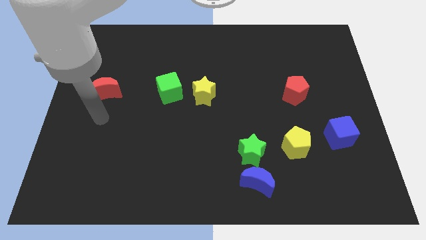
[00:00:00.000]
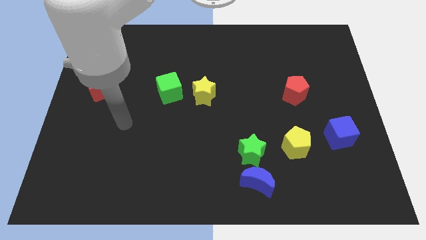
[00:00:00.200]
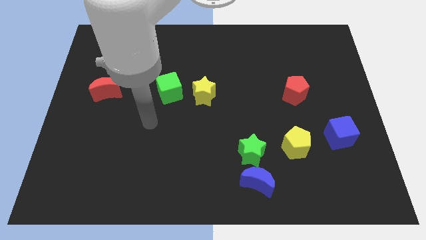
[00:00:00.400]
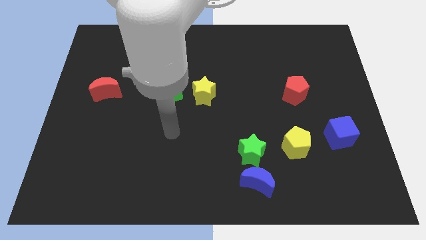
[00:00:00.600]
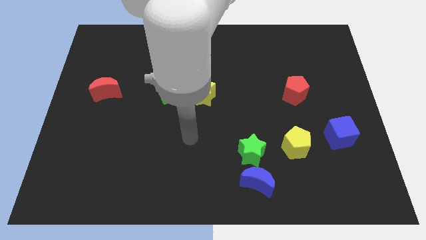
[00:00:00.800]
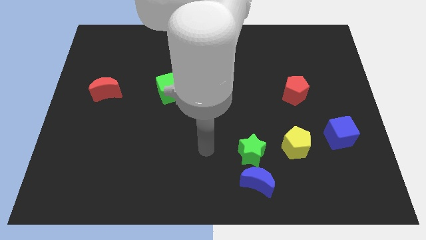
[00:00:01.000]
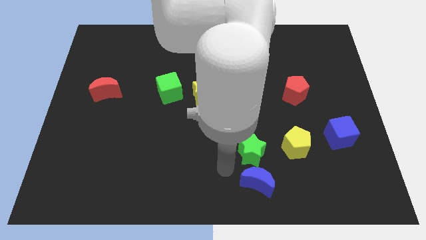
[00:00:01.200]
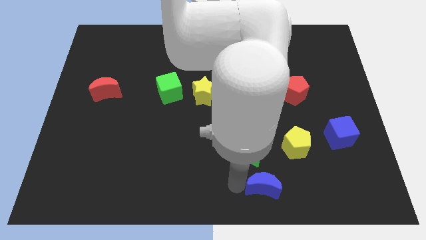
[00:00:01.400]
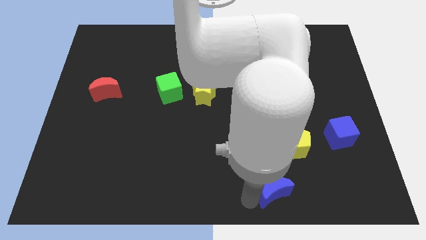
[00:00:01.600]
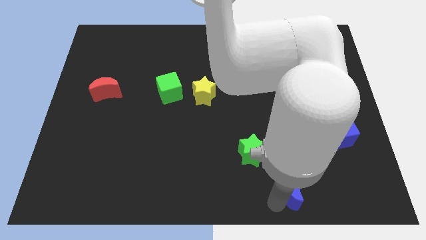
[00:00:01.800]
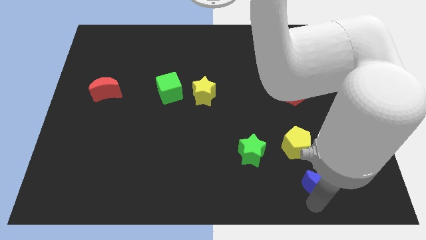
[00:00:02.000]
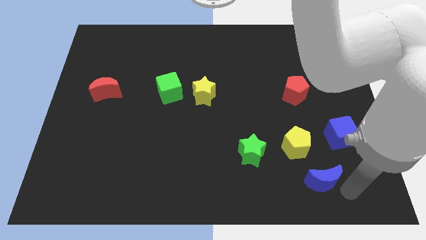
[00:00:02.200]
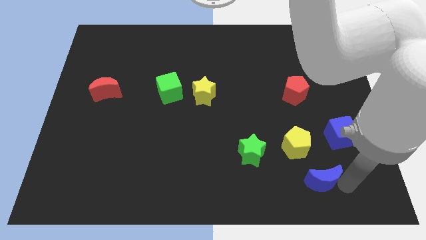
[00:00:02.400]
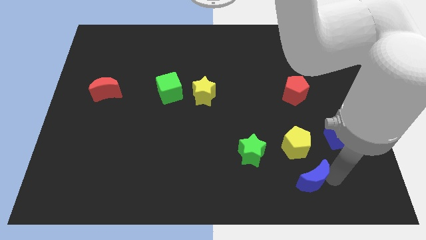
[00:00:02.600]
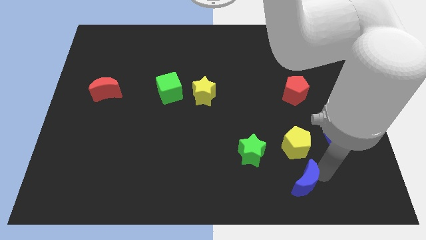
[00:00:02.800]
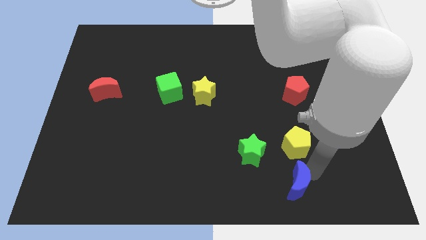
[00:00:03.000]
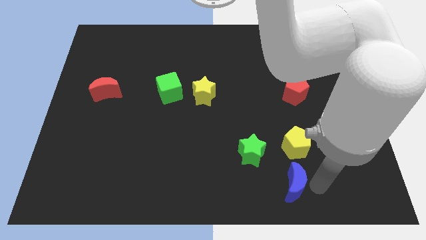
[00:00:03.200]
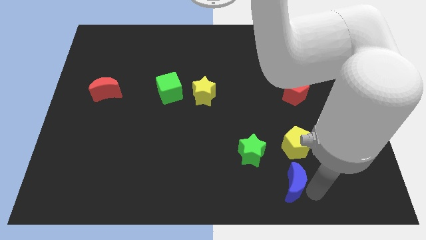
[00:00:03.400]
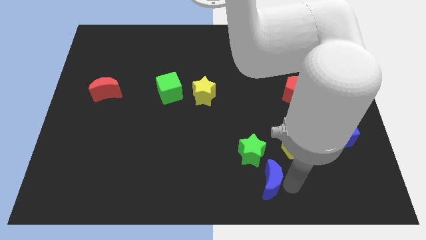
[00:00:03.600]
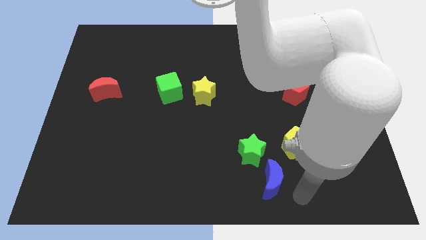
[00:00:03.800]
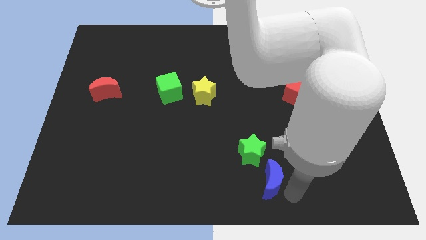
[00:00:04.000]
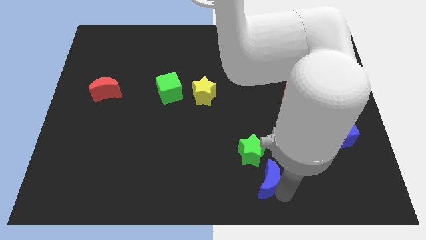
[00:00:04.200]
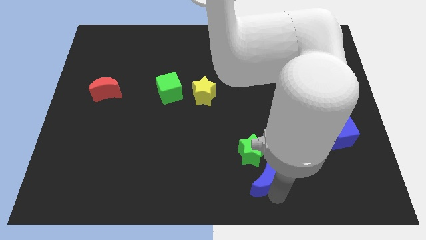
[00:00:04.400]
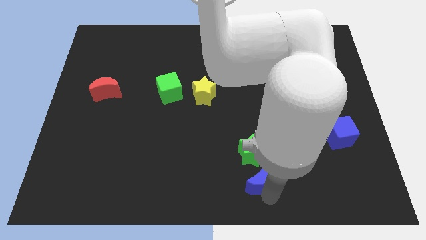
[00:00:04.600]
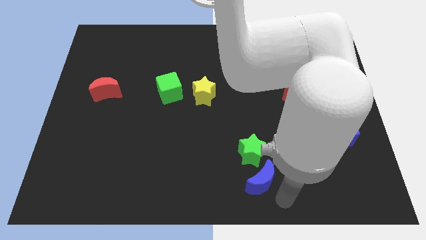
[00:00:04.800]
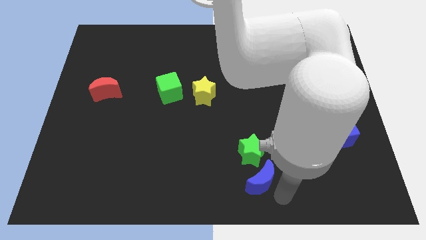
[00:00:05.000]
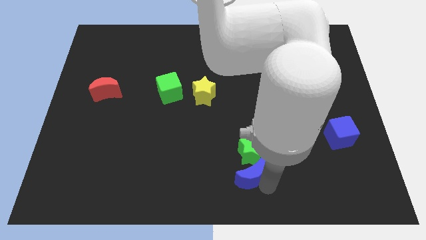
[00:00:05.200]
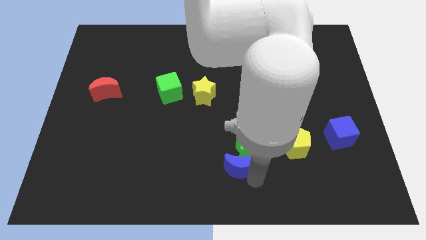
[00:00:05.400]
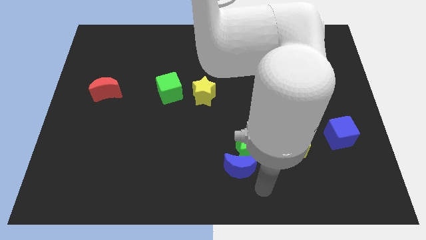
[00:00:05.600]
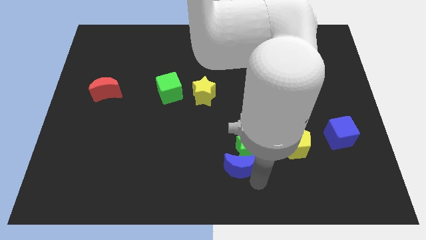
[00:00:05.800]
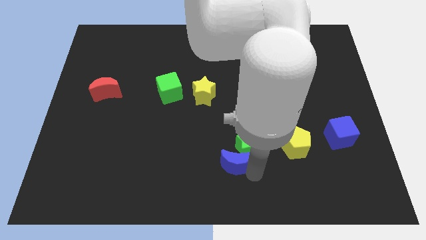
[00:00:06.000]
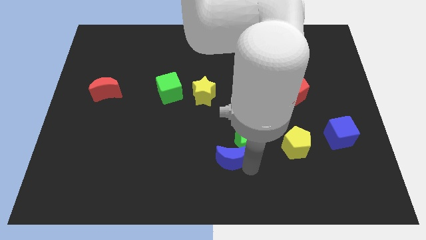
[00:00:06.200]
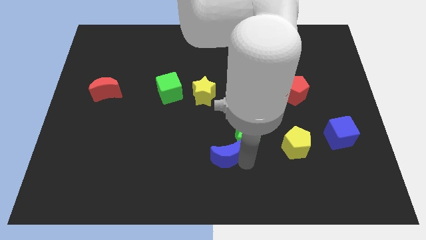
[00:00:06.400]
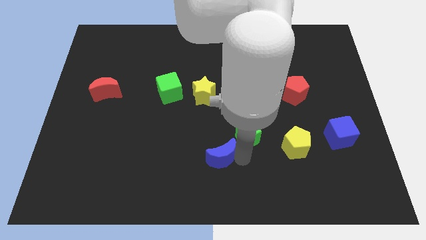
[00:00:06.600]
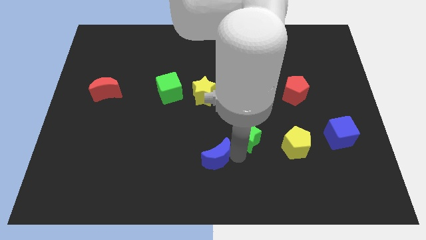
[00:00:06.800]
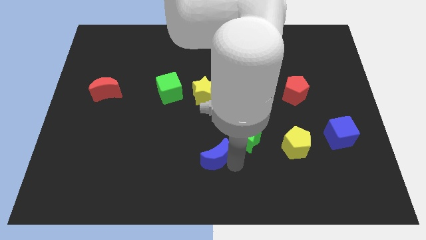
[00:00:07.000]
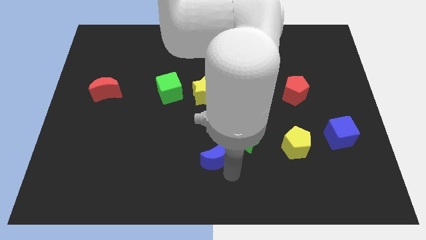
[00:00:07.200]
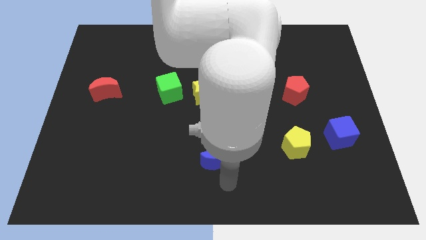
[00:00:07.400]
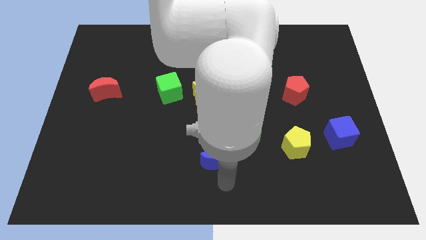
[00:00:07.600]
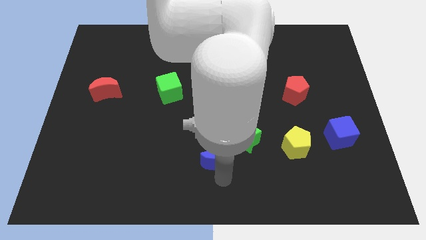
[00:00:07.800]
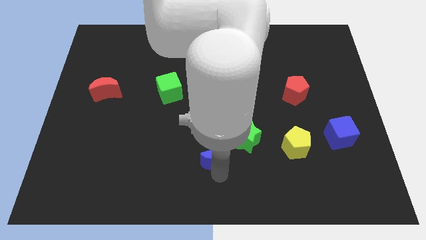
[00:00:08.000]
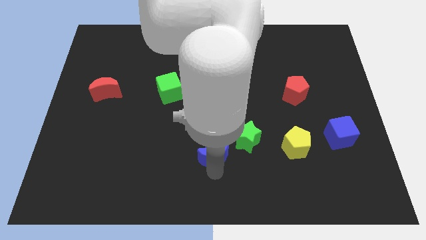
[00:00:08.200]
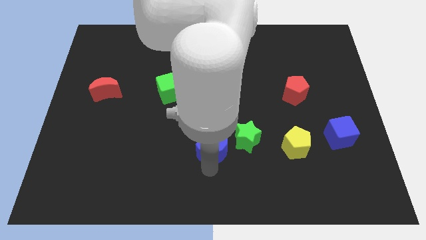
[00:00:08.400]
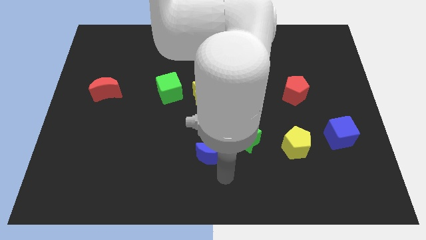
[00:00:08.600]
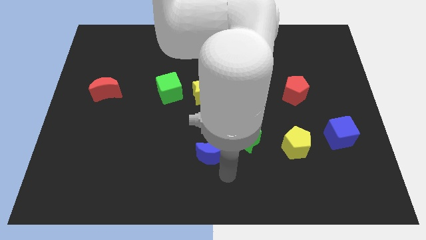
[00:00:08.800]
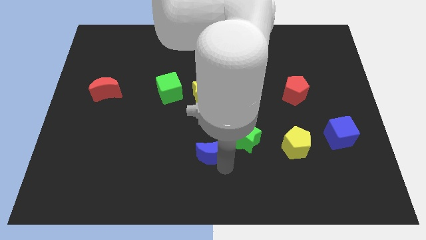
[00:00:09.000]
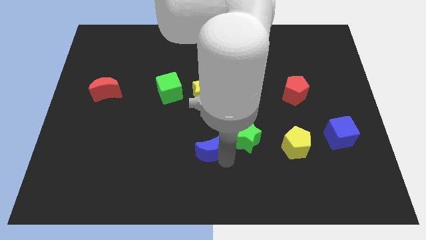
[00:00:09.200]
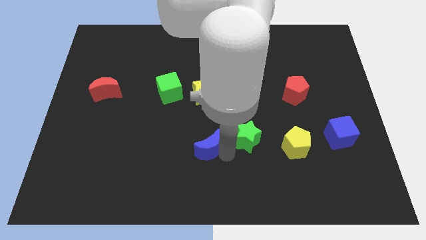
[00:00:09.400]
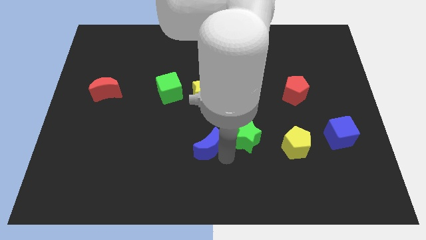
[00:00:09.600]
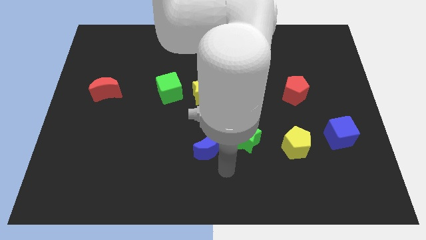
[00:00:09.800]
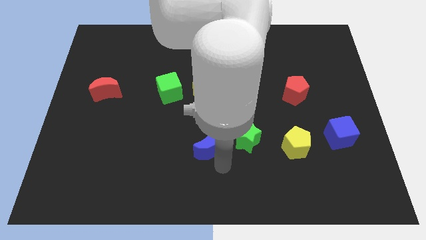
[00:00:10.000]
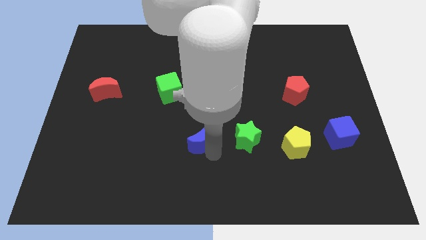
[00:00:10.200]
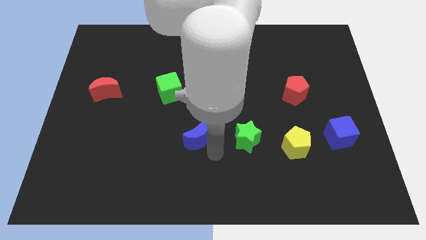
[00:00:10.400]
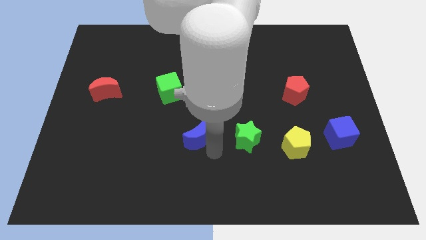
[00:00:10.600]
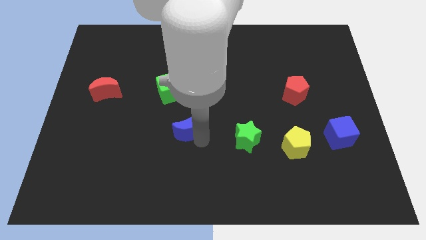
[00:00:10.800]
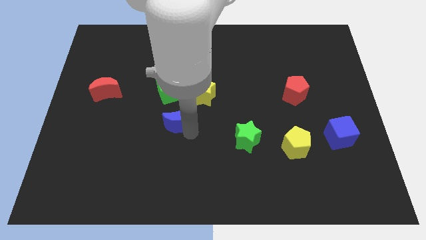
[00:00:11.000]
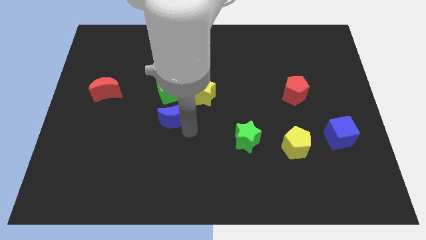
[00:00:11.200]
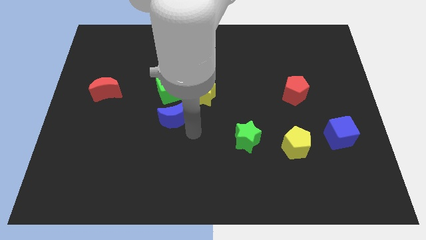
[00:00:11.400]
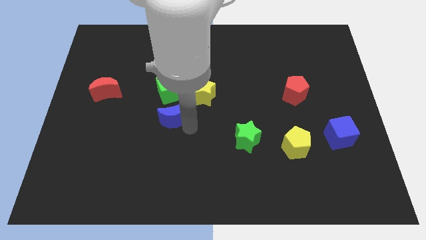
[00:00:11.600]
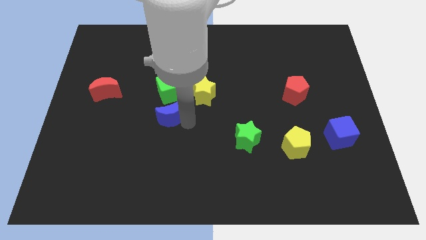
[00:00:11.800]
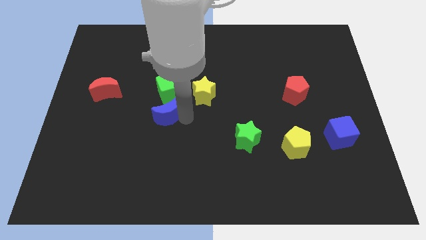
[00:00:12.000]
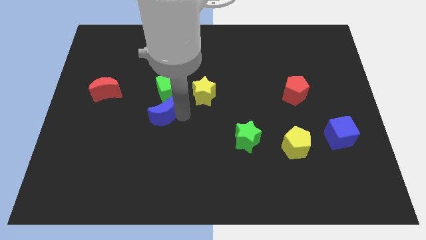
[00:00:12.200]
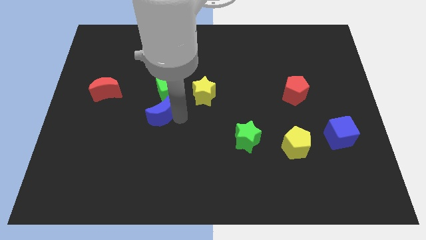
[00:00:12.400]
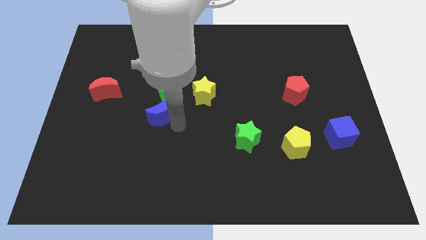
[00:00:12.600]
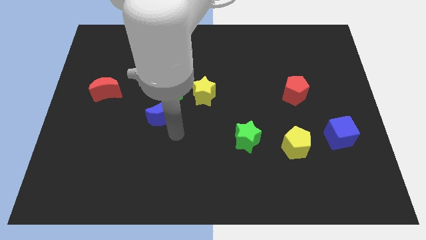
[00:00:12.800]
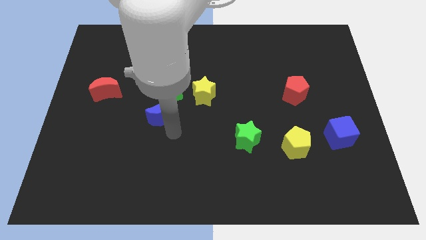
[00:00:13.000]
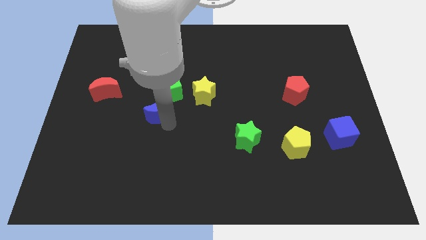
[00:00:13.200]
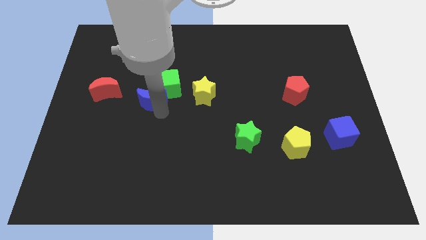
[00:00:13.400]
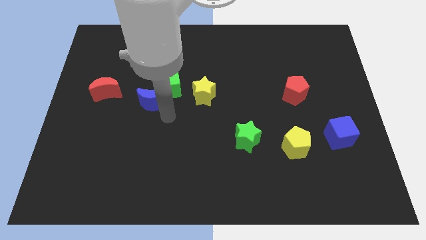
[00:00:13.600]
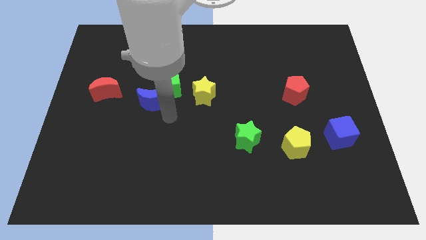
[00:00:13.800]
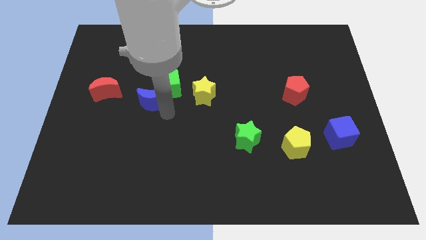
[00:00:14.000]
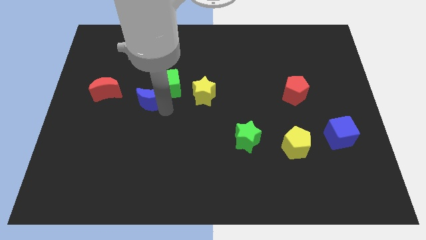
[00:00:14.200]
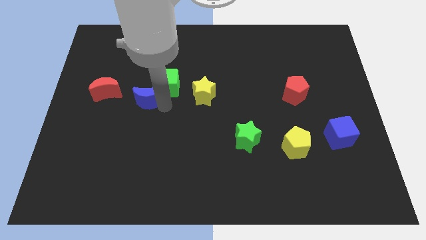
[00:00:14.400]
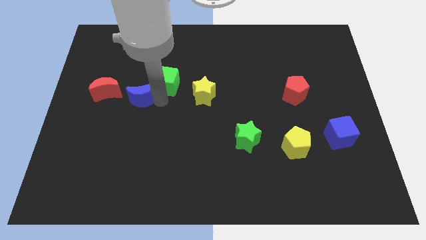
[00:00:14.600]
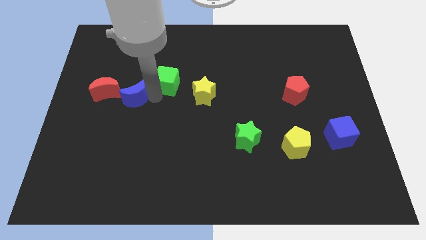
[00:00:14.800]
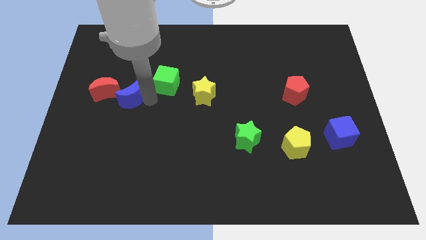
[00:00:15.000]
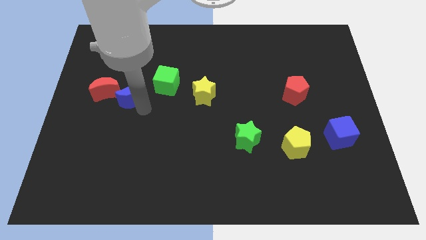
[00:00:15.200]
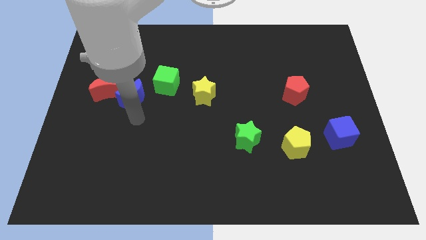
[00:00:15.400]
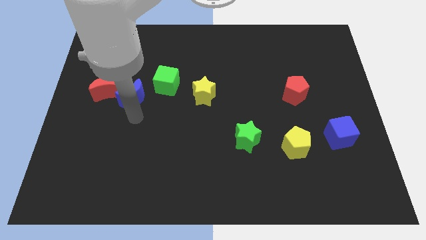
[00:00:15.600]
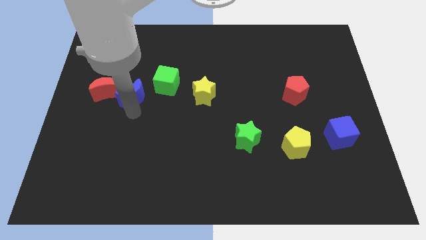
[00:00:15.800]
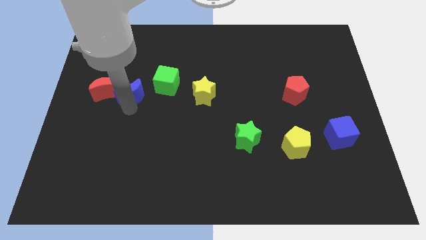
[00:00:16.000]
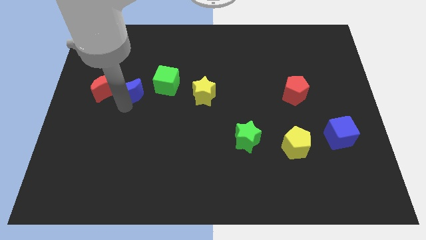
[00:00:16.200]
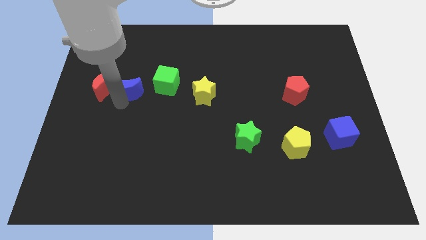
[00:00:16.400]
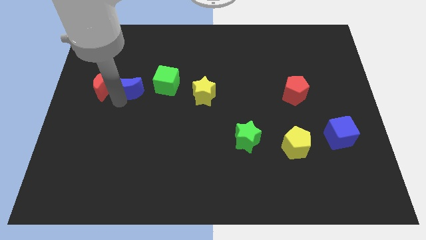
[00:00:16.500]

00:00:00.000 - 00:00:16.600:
put the blue moon to the top right side of the red moon

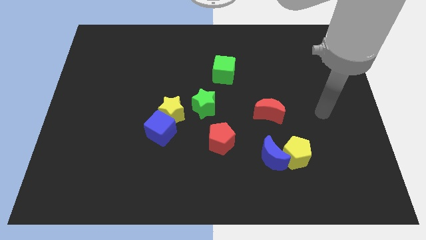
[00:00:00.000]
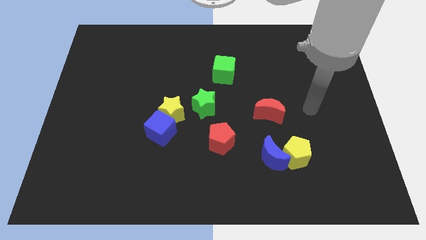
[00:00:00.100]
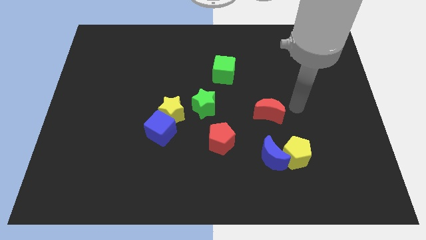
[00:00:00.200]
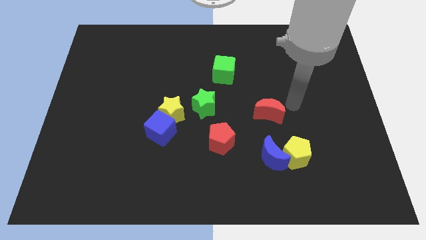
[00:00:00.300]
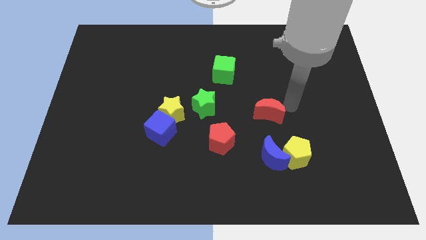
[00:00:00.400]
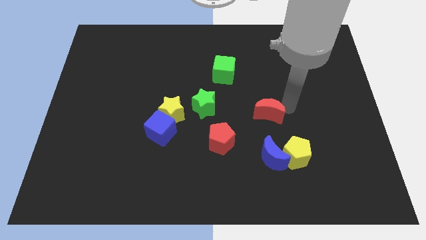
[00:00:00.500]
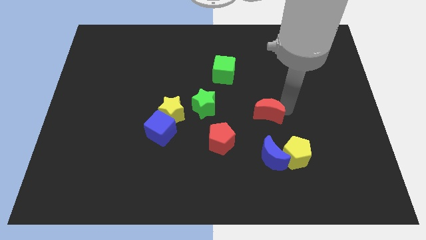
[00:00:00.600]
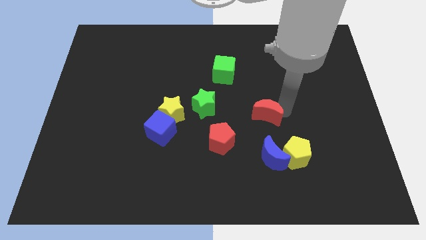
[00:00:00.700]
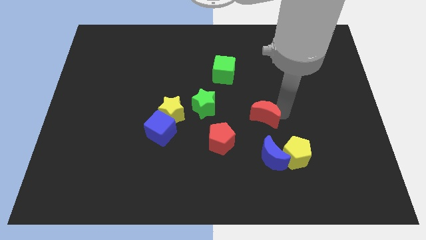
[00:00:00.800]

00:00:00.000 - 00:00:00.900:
slide the red moon to the top right of the red pentagon
